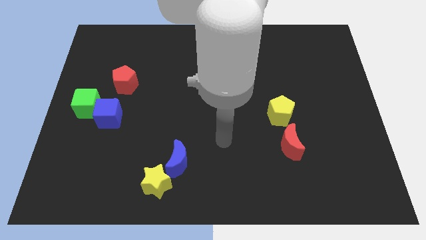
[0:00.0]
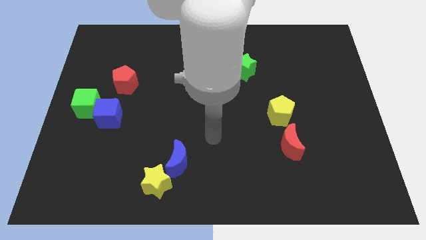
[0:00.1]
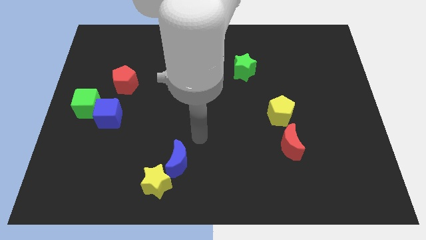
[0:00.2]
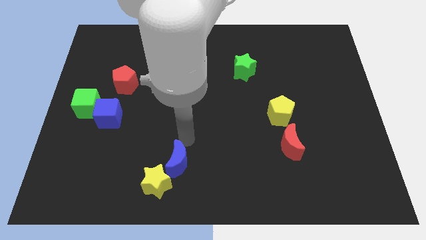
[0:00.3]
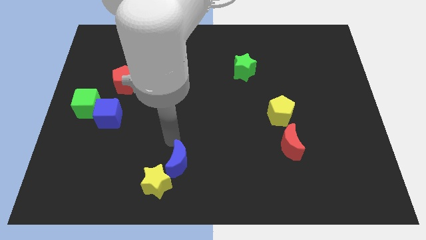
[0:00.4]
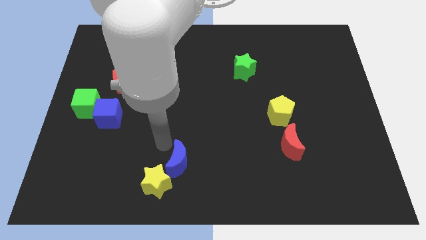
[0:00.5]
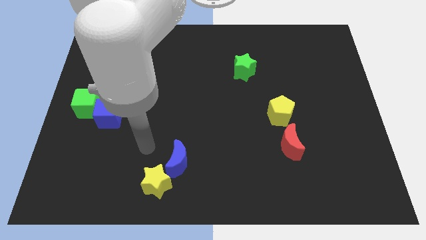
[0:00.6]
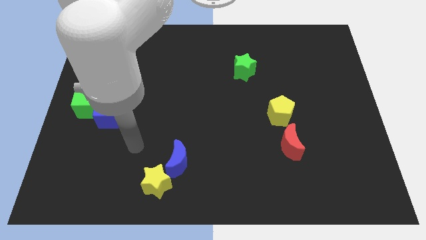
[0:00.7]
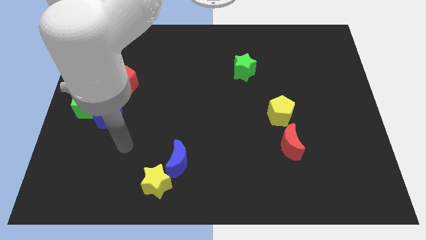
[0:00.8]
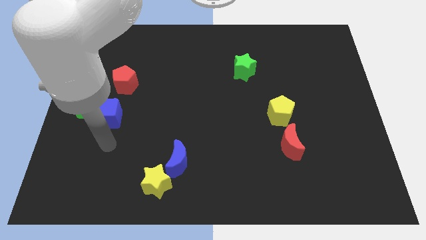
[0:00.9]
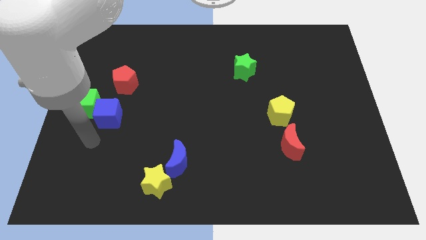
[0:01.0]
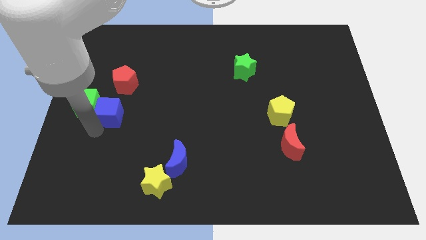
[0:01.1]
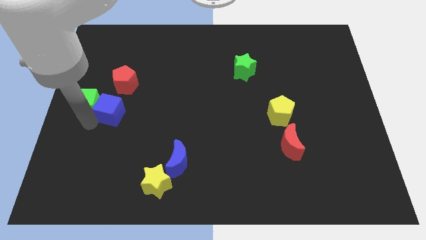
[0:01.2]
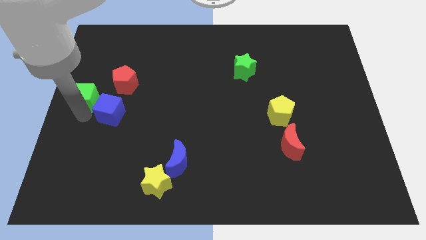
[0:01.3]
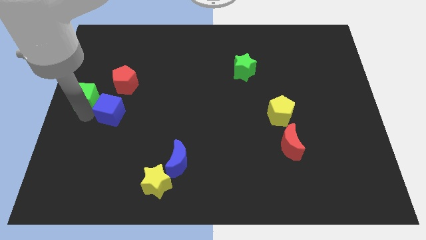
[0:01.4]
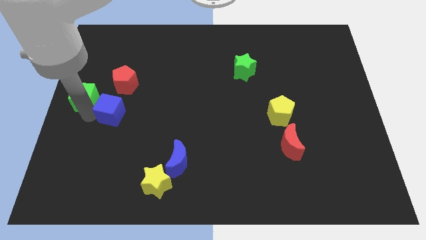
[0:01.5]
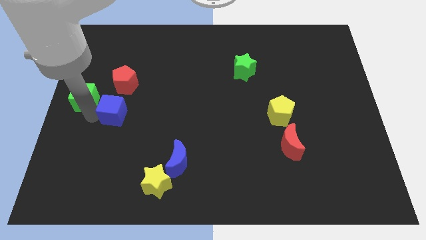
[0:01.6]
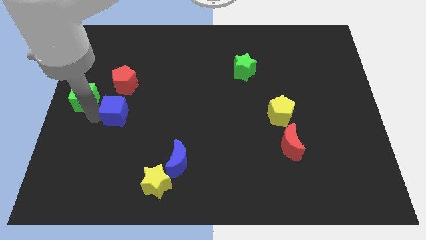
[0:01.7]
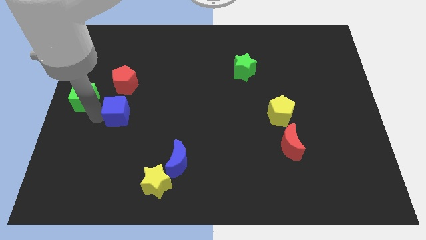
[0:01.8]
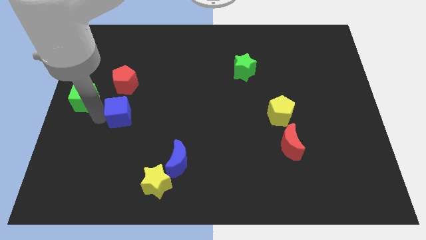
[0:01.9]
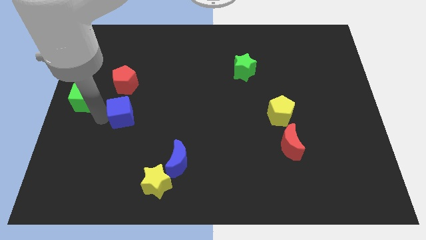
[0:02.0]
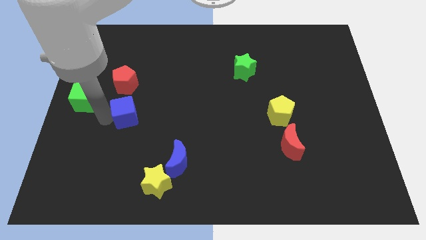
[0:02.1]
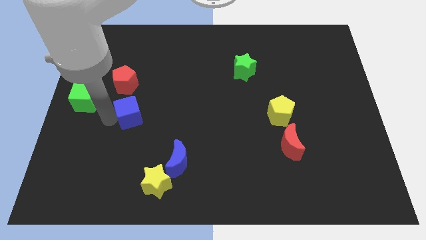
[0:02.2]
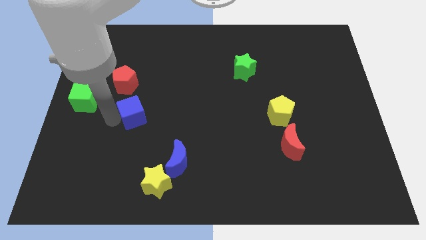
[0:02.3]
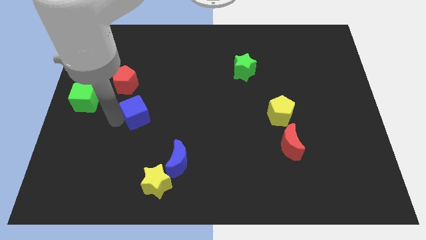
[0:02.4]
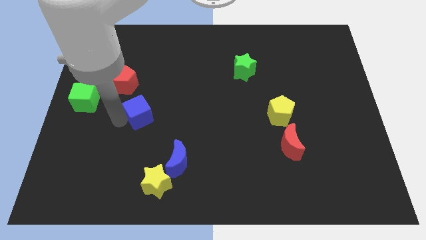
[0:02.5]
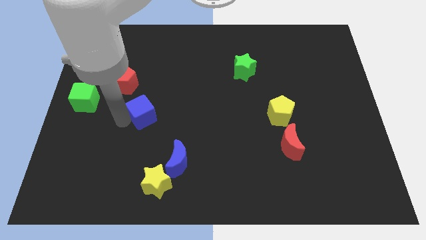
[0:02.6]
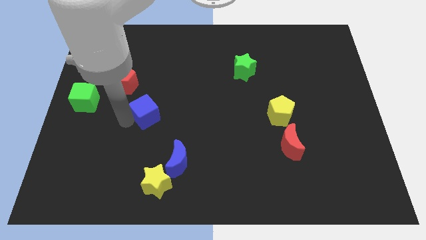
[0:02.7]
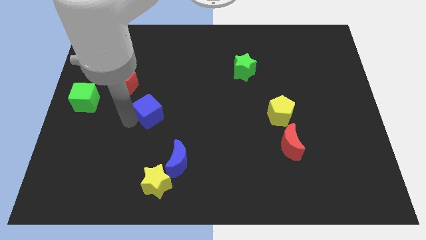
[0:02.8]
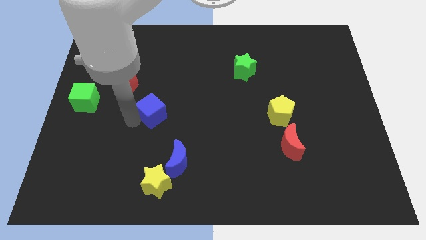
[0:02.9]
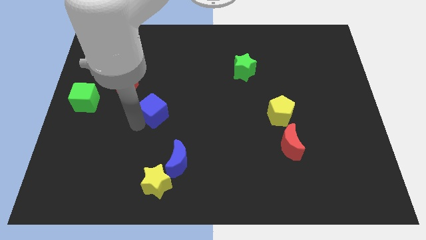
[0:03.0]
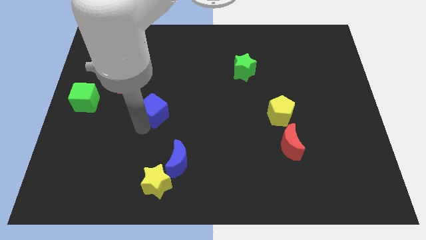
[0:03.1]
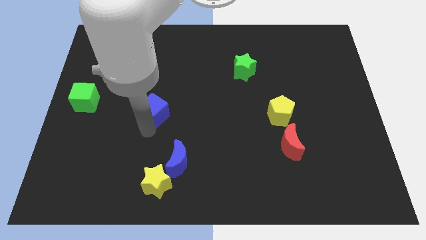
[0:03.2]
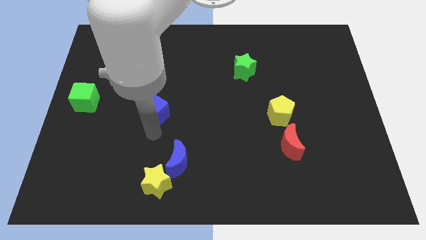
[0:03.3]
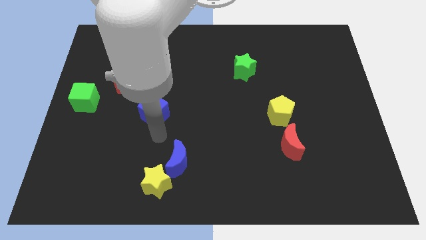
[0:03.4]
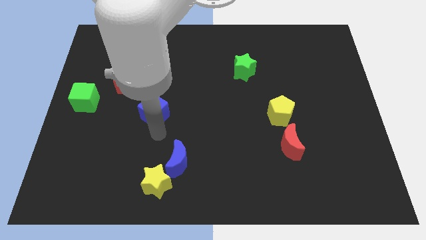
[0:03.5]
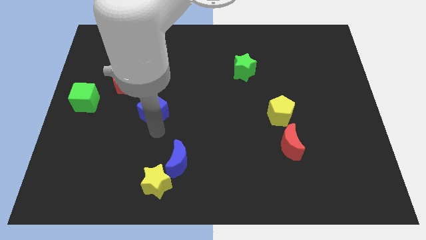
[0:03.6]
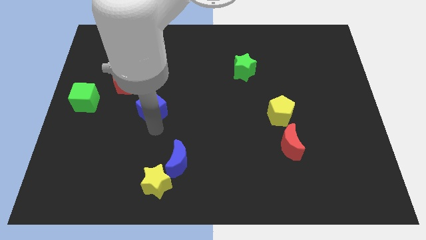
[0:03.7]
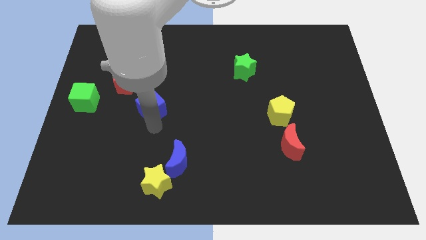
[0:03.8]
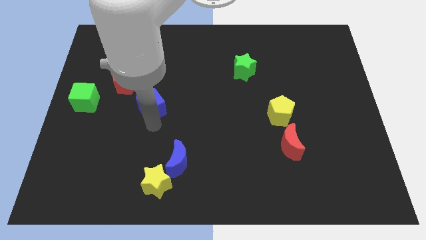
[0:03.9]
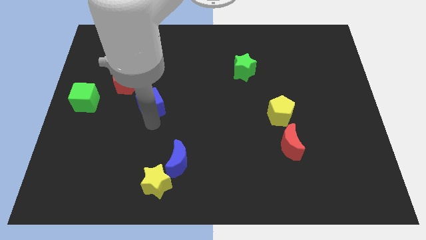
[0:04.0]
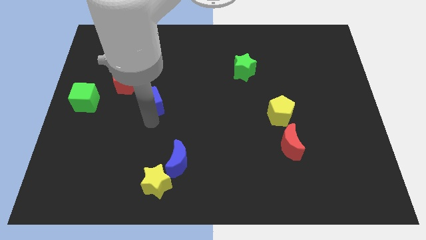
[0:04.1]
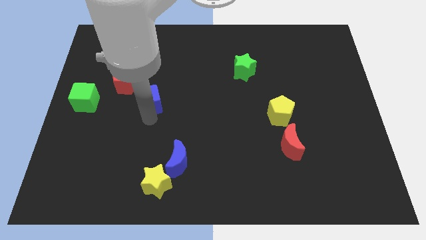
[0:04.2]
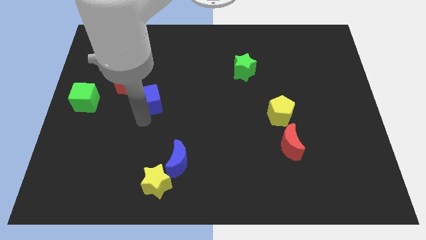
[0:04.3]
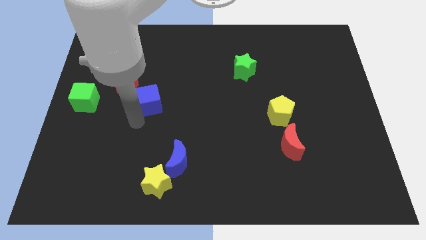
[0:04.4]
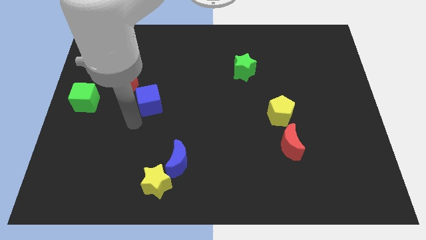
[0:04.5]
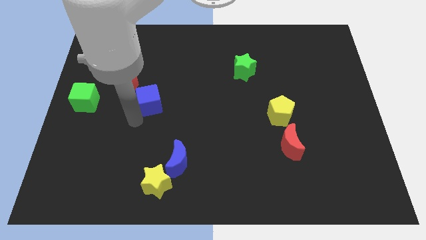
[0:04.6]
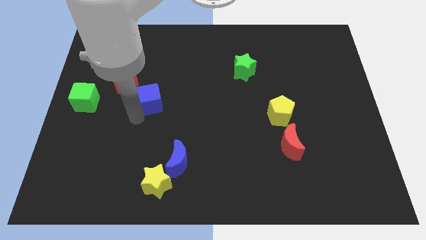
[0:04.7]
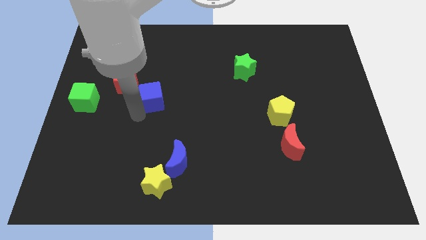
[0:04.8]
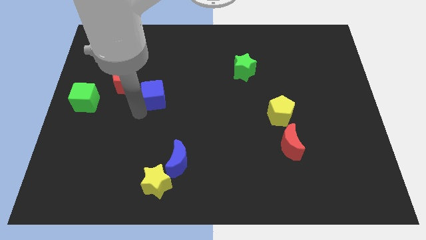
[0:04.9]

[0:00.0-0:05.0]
move the blue cube right of the red pentagon

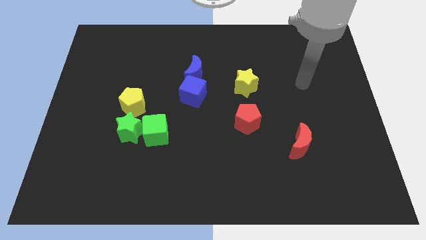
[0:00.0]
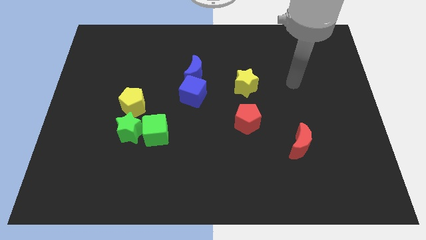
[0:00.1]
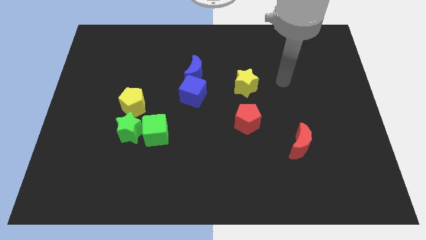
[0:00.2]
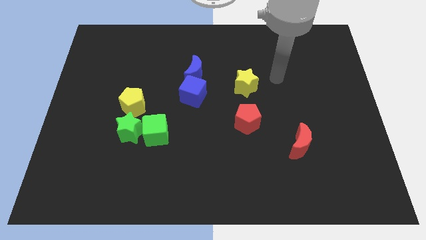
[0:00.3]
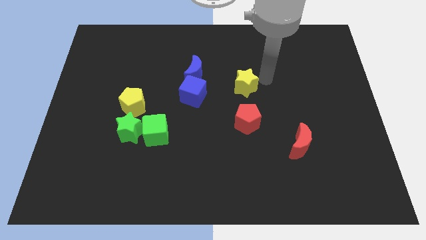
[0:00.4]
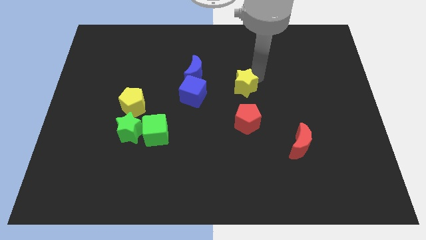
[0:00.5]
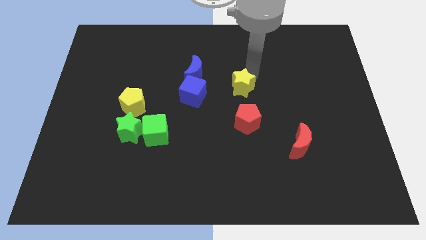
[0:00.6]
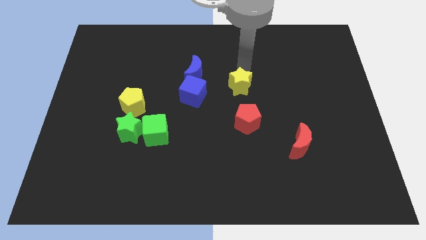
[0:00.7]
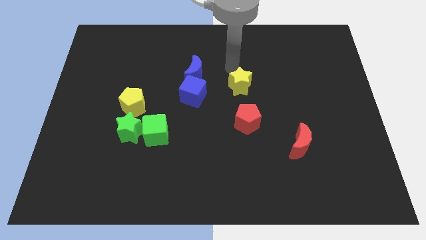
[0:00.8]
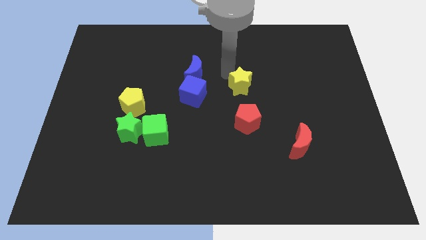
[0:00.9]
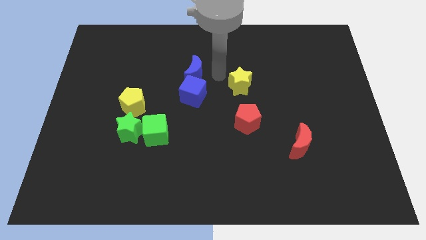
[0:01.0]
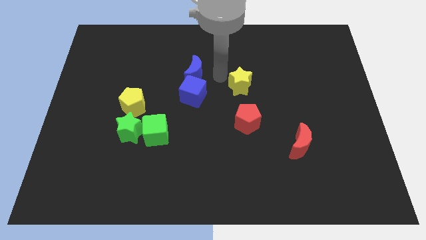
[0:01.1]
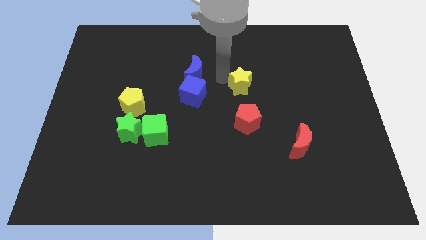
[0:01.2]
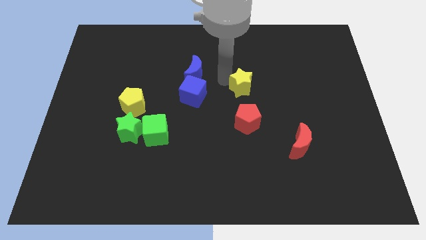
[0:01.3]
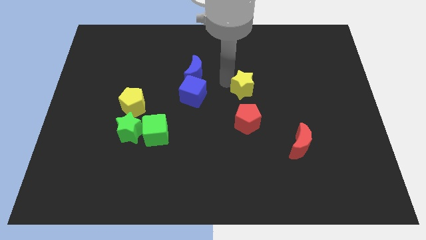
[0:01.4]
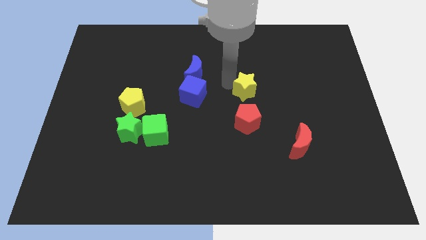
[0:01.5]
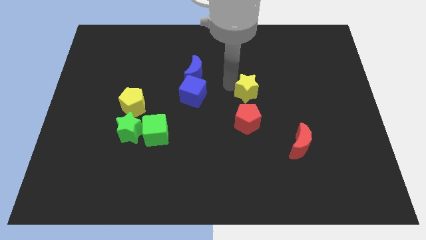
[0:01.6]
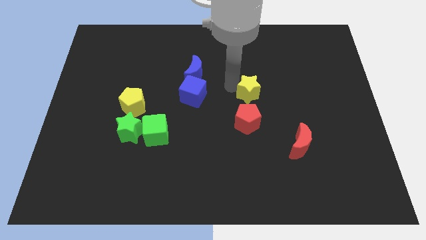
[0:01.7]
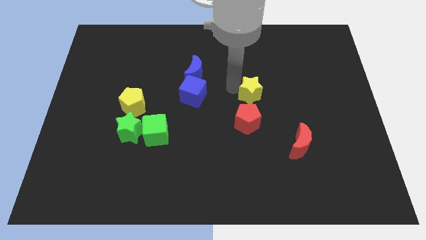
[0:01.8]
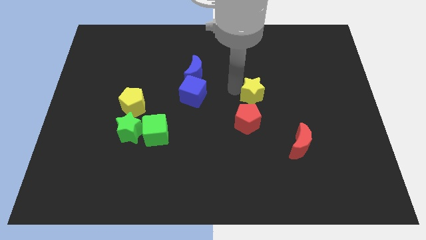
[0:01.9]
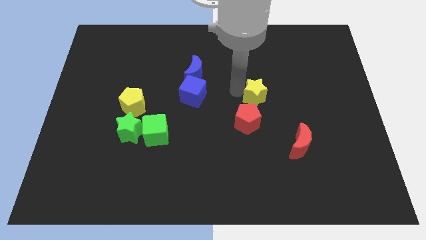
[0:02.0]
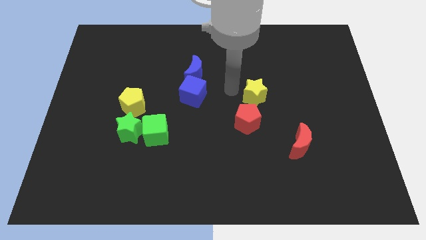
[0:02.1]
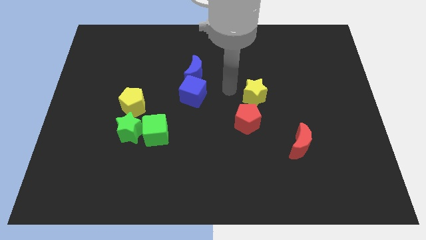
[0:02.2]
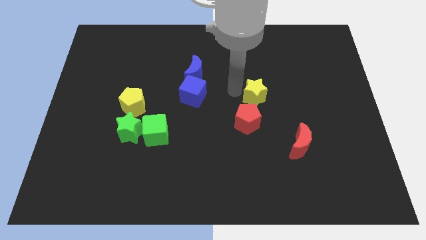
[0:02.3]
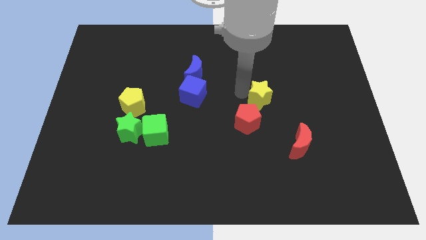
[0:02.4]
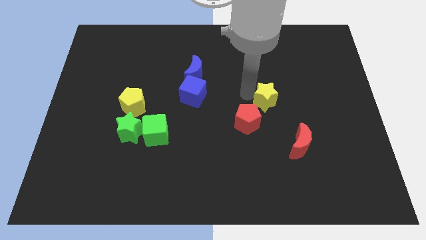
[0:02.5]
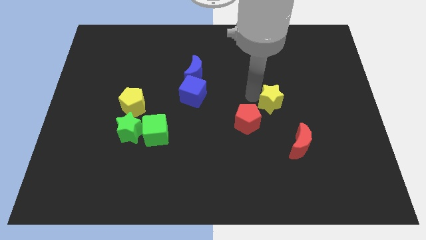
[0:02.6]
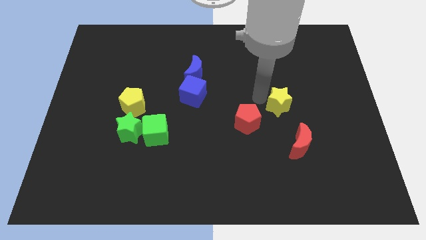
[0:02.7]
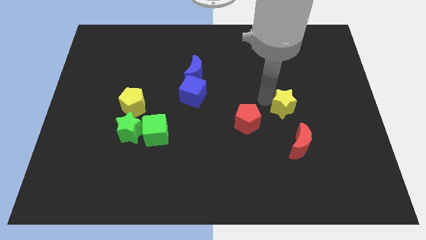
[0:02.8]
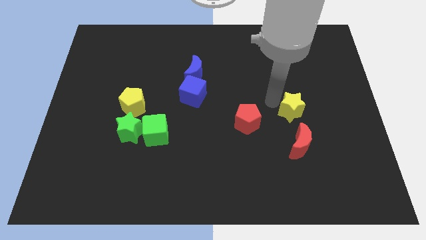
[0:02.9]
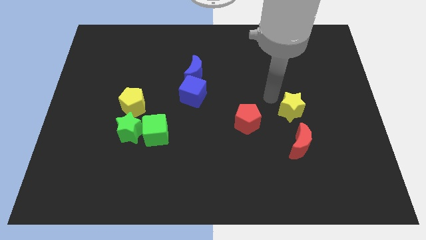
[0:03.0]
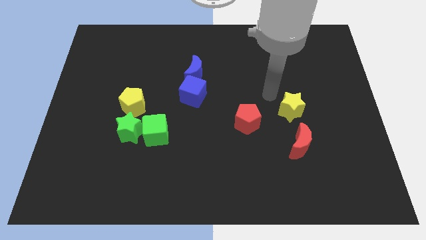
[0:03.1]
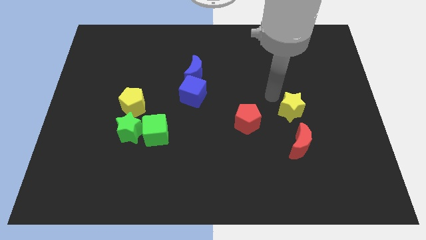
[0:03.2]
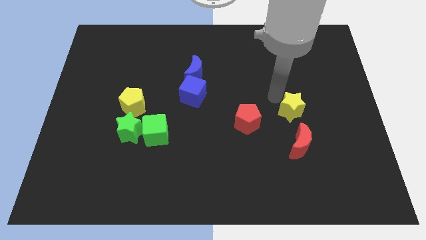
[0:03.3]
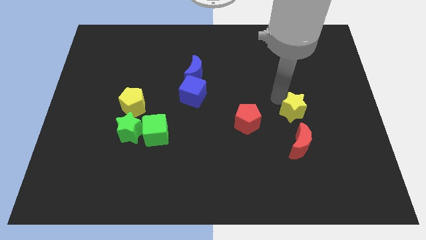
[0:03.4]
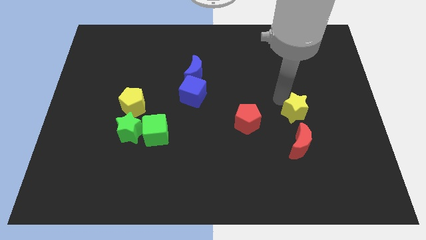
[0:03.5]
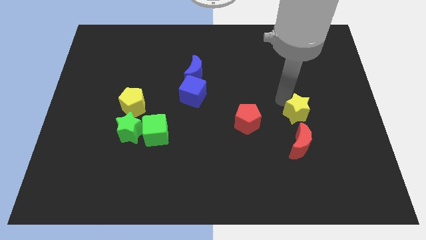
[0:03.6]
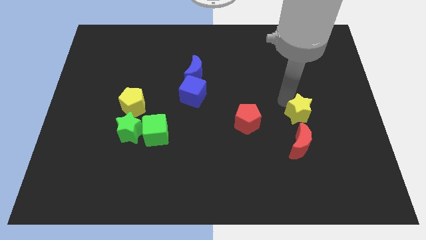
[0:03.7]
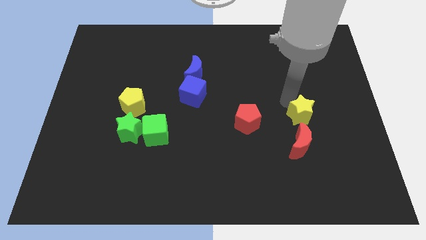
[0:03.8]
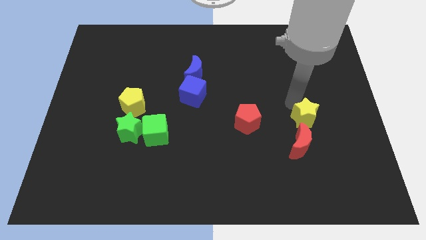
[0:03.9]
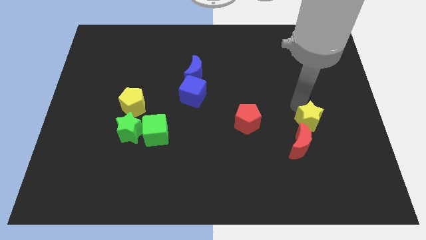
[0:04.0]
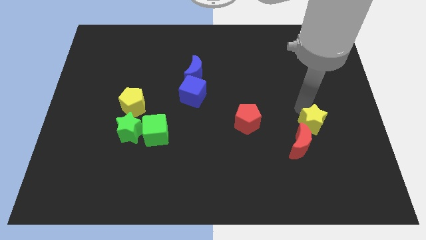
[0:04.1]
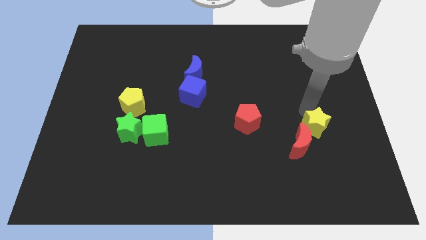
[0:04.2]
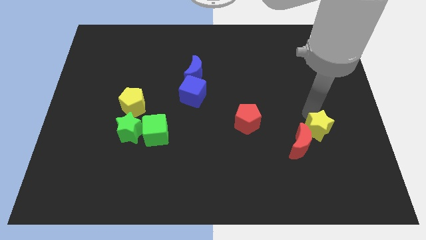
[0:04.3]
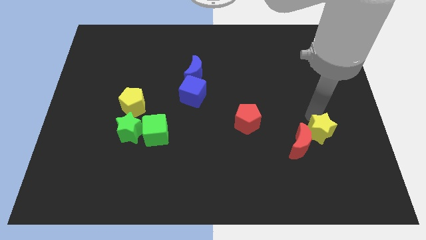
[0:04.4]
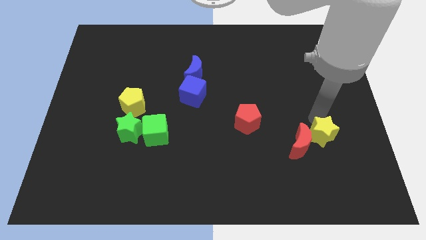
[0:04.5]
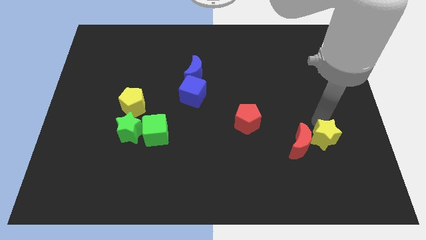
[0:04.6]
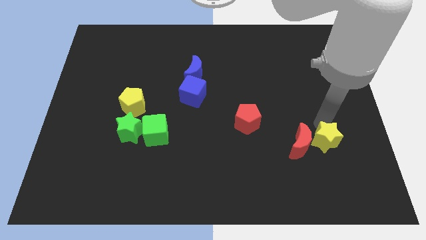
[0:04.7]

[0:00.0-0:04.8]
push the yellow star diagonally down and to the right of the red moon
